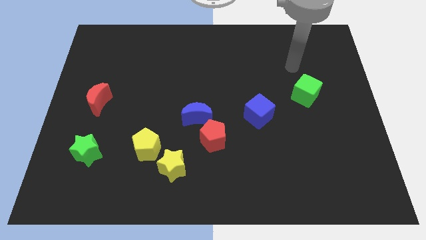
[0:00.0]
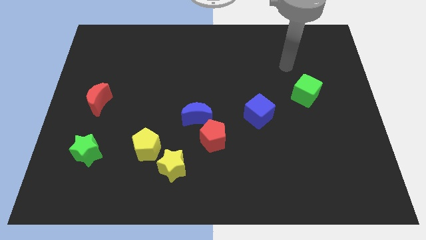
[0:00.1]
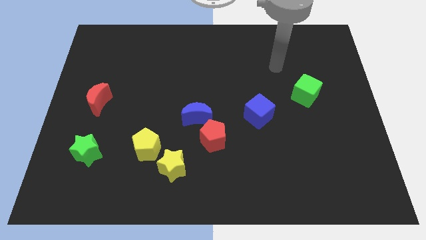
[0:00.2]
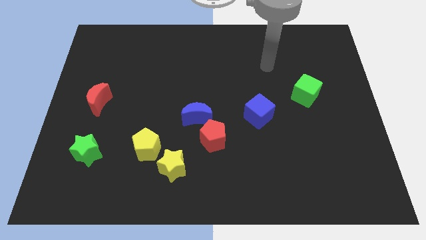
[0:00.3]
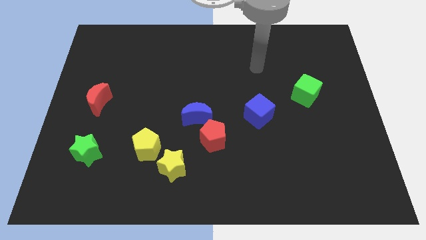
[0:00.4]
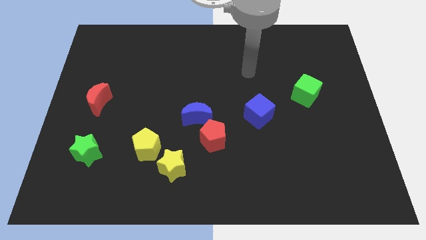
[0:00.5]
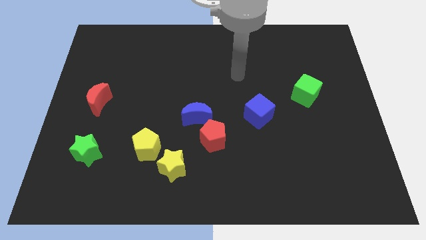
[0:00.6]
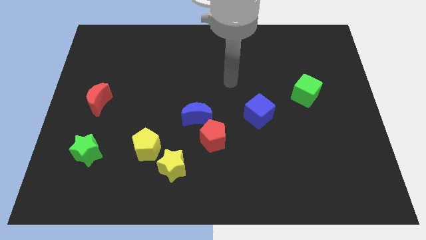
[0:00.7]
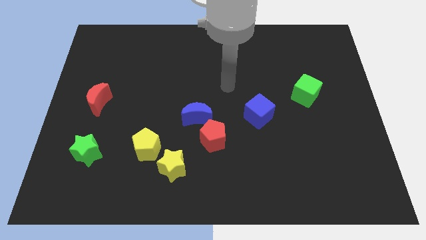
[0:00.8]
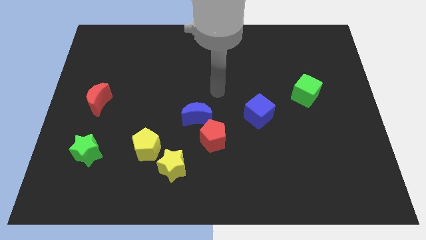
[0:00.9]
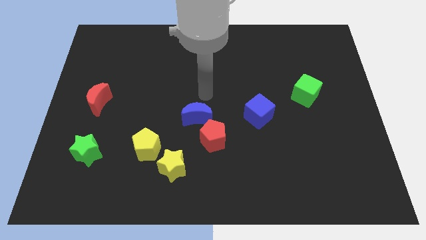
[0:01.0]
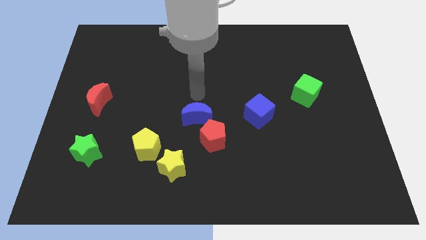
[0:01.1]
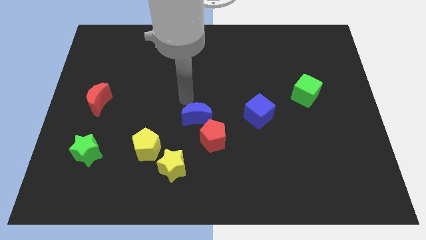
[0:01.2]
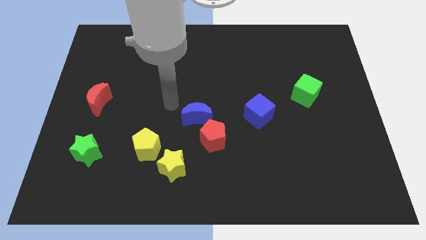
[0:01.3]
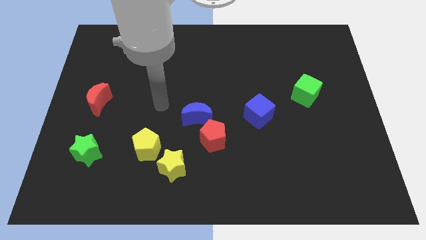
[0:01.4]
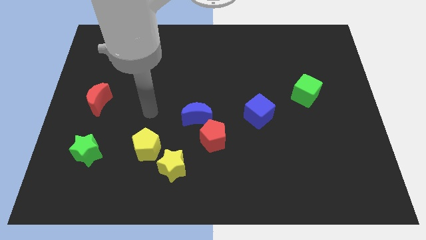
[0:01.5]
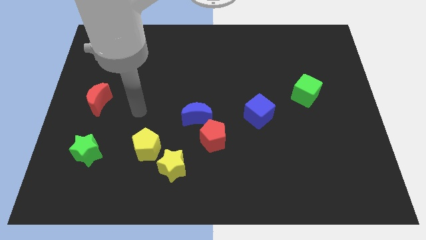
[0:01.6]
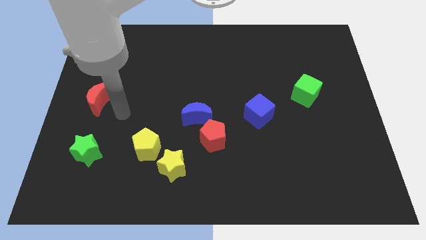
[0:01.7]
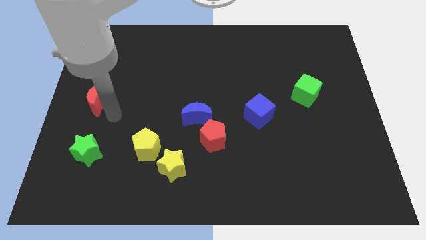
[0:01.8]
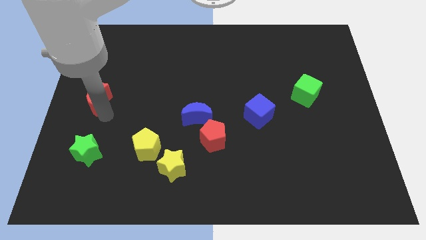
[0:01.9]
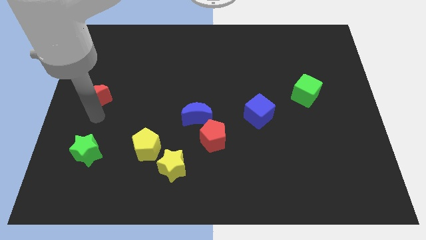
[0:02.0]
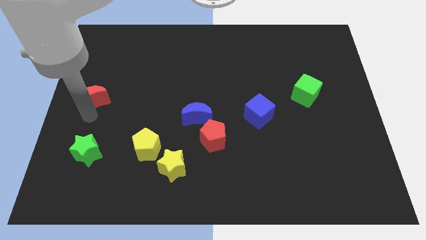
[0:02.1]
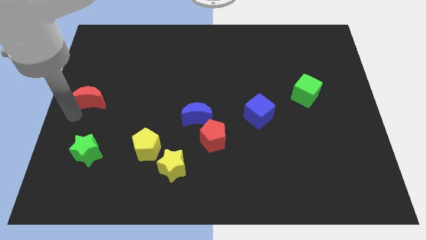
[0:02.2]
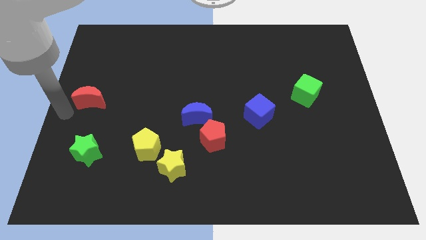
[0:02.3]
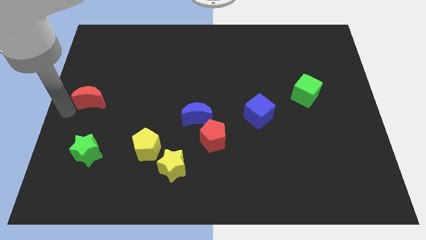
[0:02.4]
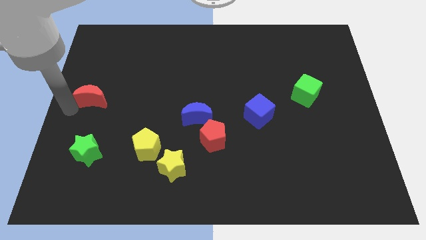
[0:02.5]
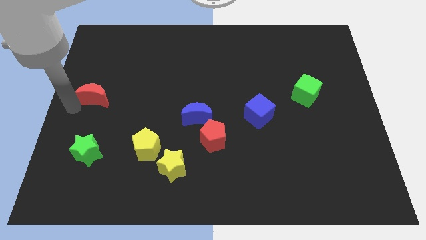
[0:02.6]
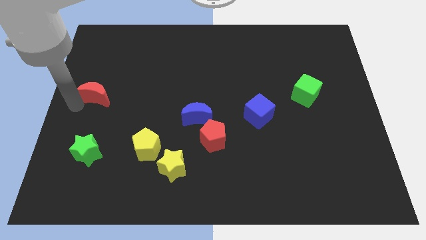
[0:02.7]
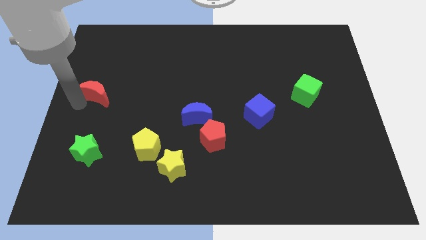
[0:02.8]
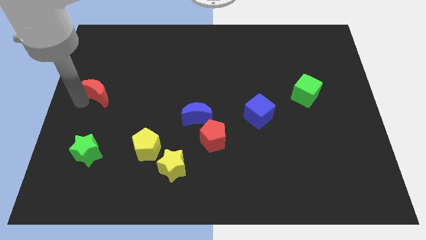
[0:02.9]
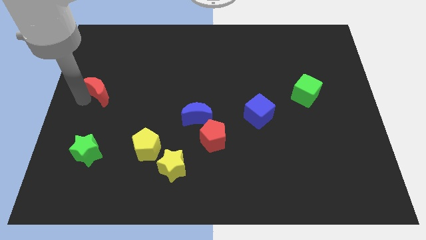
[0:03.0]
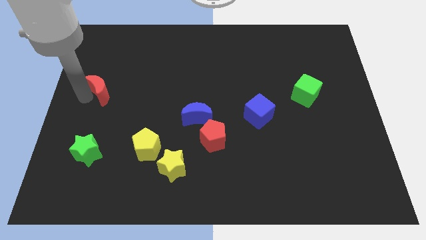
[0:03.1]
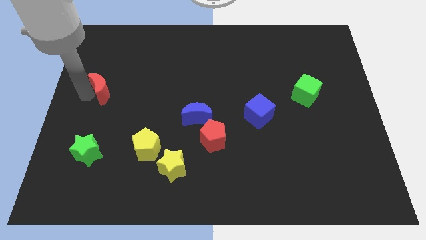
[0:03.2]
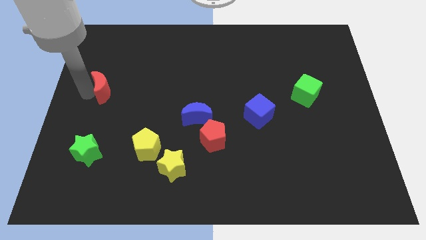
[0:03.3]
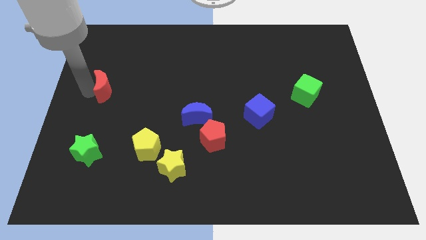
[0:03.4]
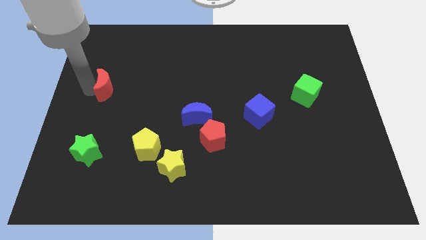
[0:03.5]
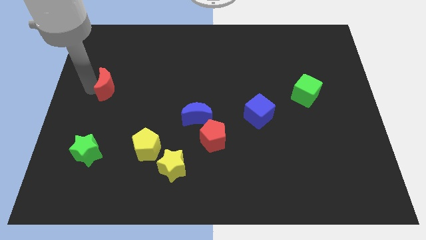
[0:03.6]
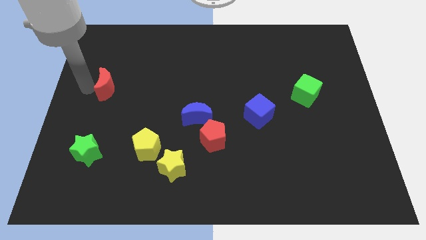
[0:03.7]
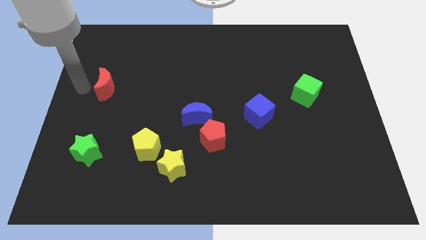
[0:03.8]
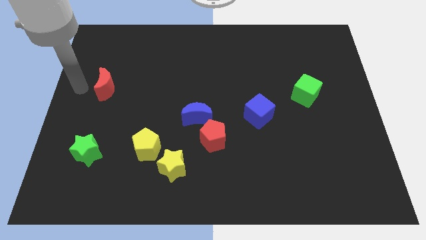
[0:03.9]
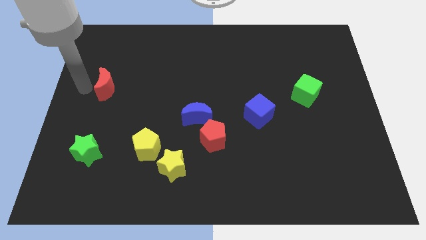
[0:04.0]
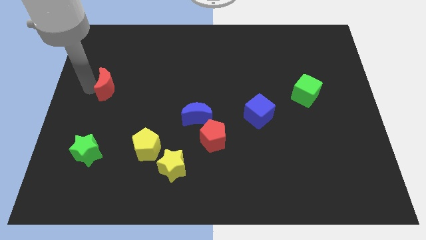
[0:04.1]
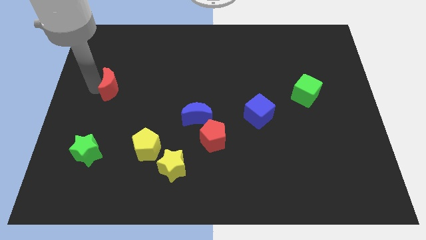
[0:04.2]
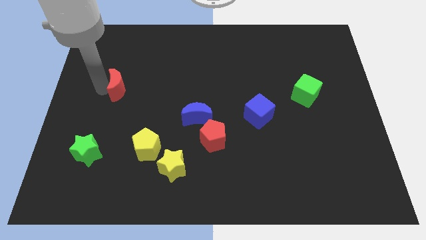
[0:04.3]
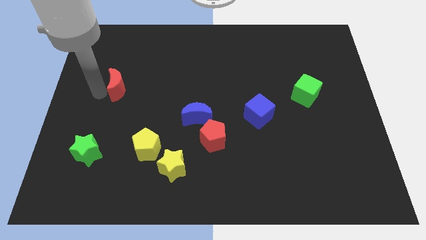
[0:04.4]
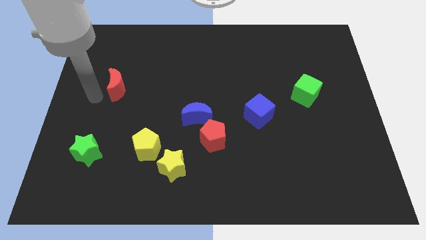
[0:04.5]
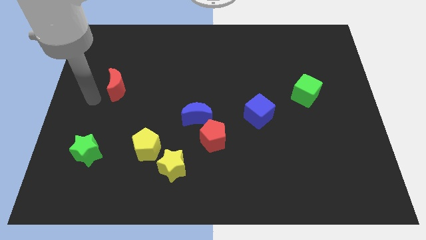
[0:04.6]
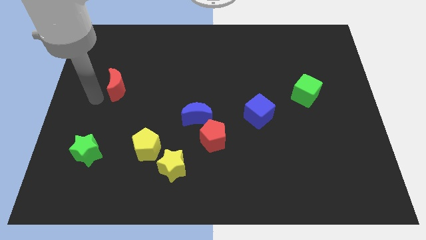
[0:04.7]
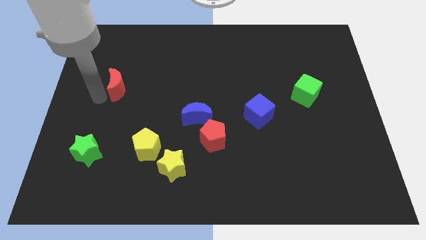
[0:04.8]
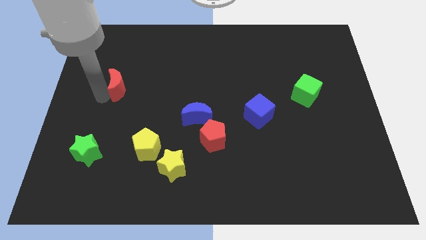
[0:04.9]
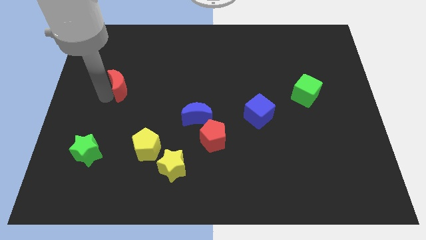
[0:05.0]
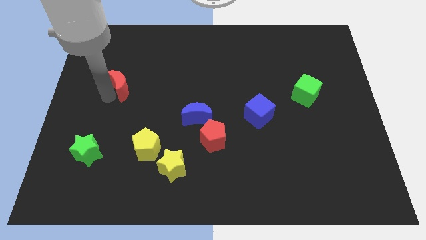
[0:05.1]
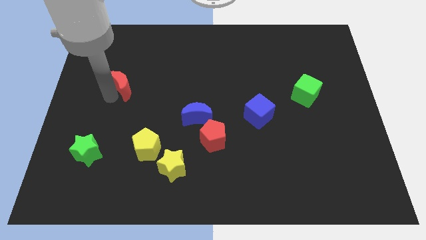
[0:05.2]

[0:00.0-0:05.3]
slightly push the red moon up and then to the right

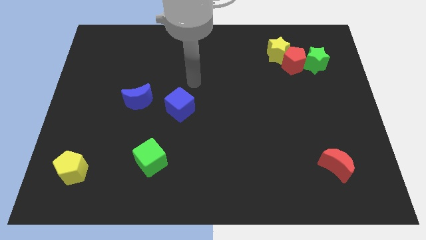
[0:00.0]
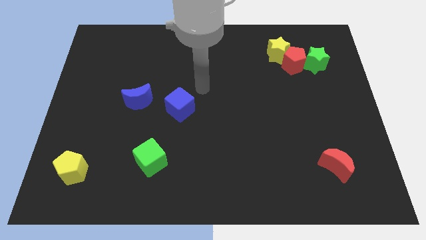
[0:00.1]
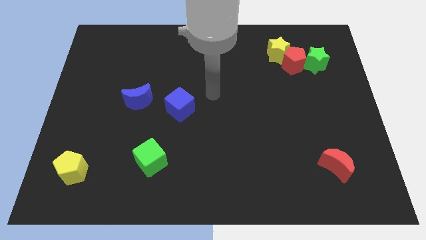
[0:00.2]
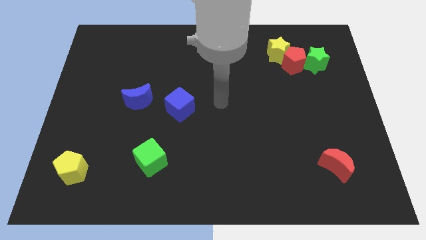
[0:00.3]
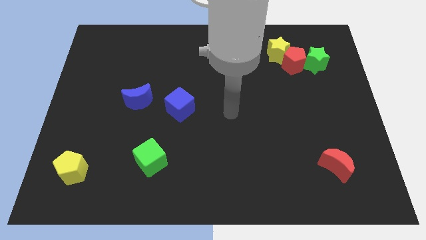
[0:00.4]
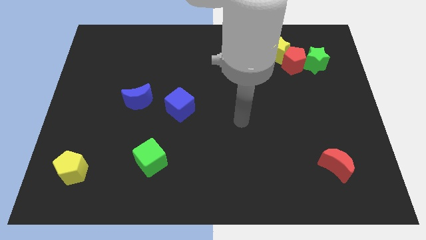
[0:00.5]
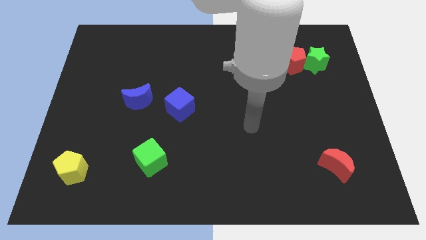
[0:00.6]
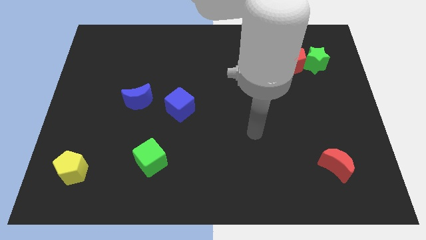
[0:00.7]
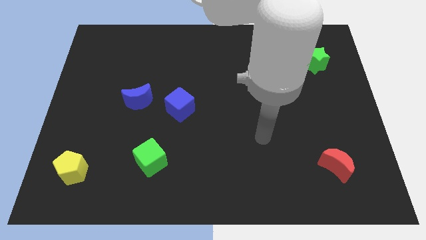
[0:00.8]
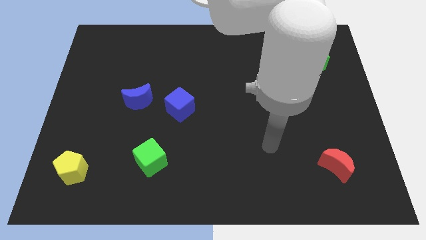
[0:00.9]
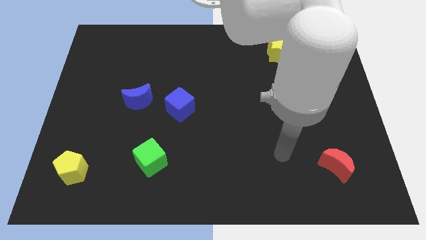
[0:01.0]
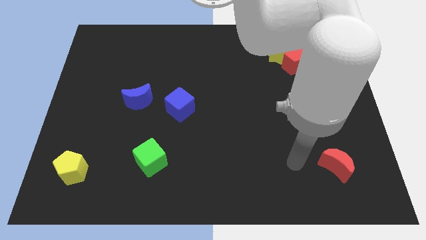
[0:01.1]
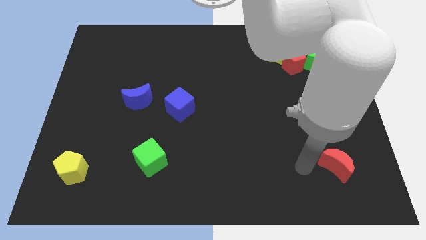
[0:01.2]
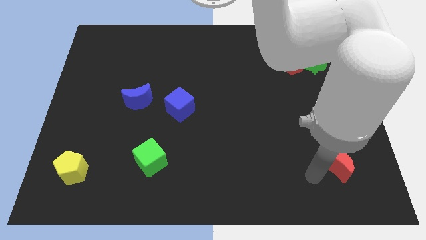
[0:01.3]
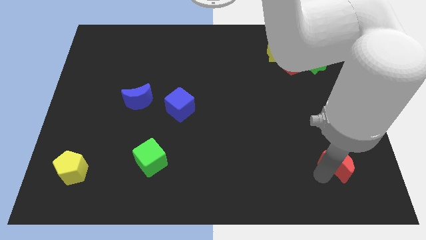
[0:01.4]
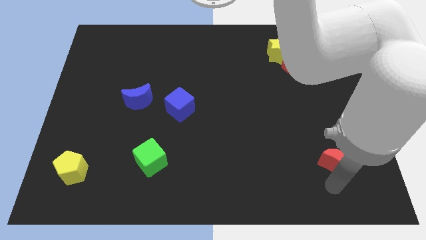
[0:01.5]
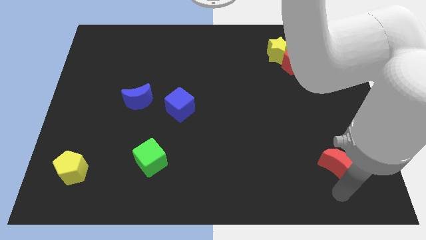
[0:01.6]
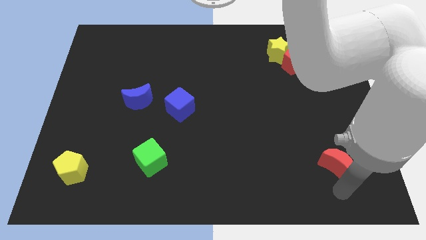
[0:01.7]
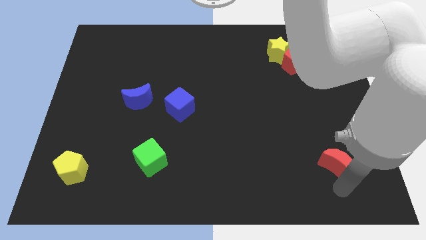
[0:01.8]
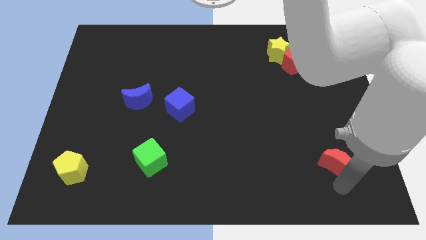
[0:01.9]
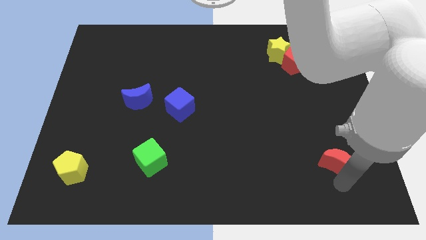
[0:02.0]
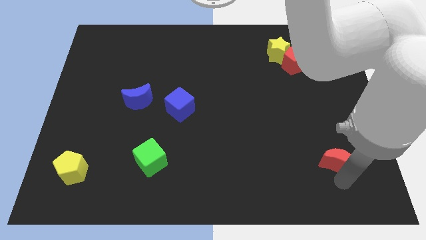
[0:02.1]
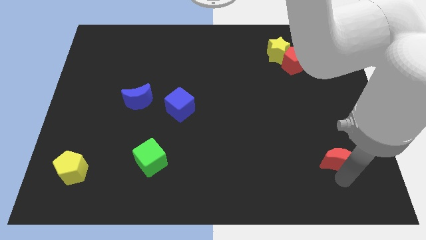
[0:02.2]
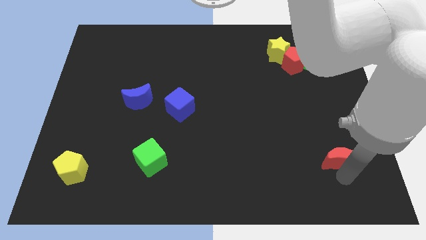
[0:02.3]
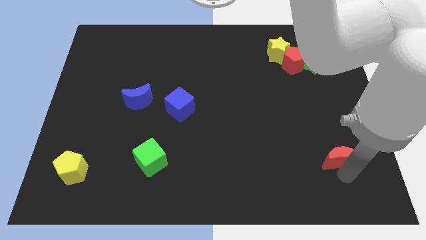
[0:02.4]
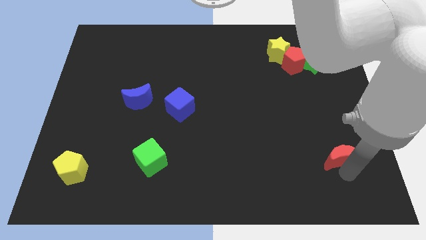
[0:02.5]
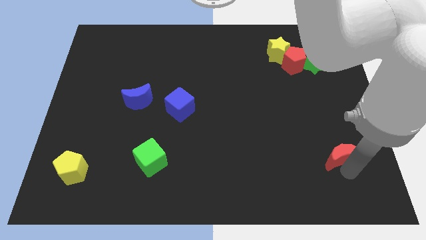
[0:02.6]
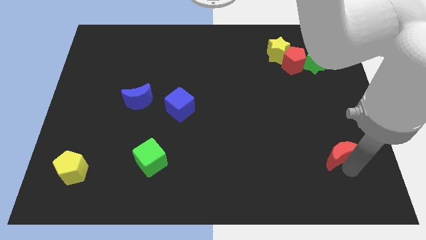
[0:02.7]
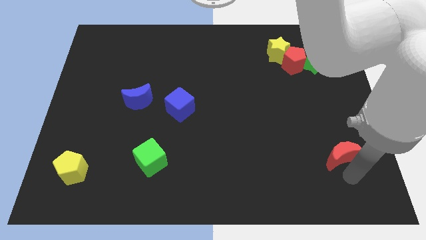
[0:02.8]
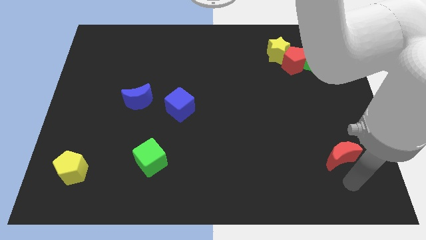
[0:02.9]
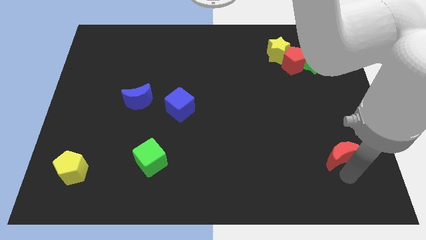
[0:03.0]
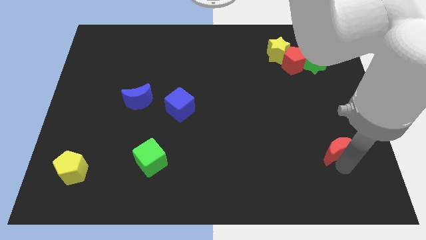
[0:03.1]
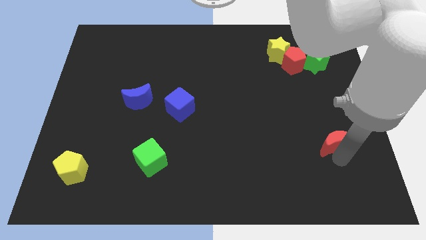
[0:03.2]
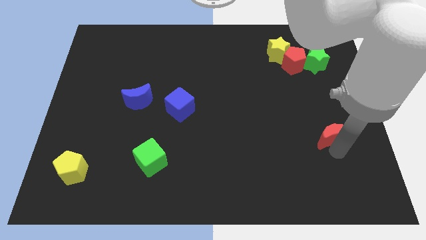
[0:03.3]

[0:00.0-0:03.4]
push the red moon somewhat upwards
